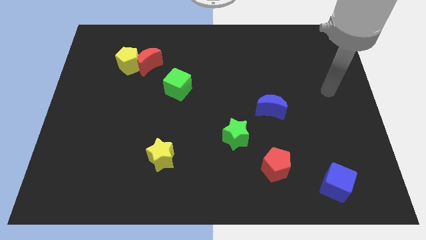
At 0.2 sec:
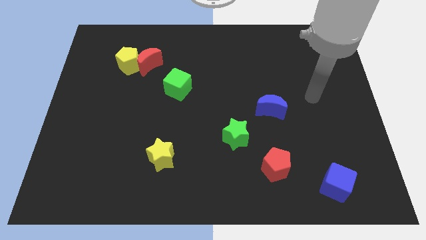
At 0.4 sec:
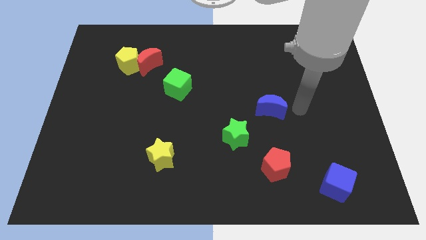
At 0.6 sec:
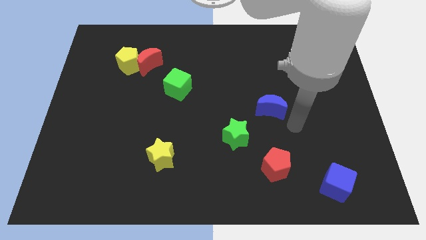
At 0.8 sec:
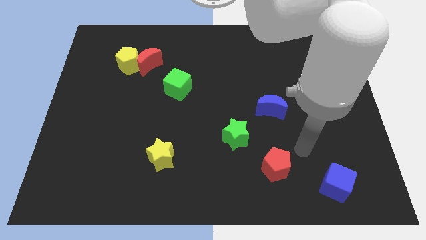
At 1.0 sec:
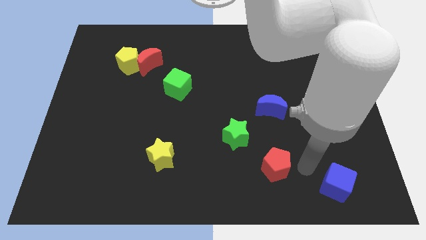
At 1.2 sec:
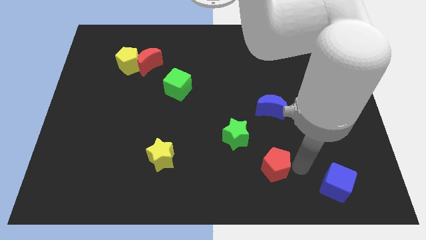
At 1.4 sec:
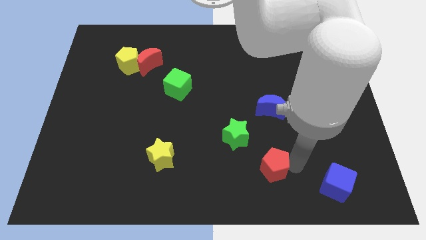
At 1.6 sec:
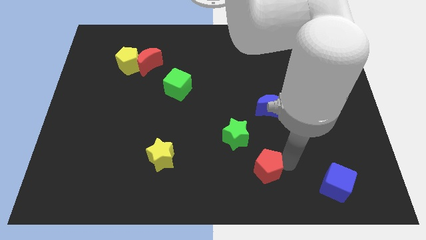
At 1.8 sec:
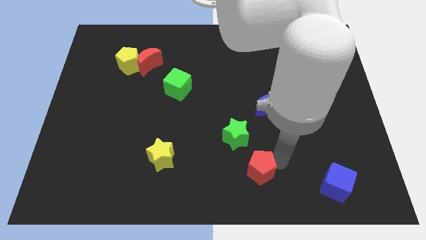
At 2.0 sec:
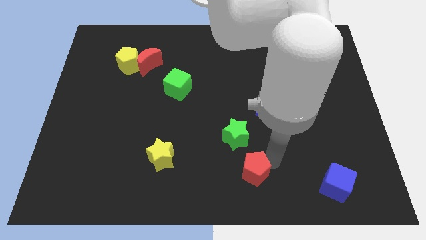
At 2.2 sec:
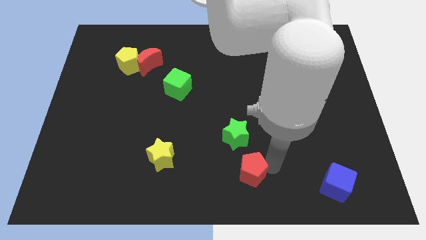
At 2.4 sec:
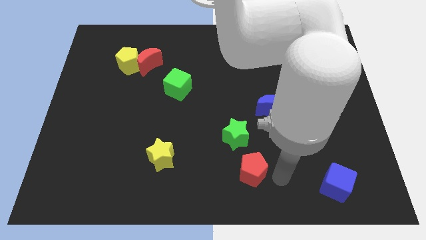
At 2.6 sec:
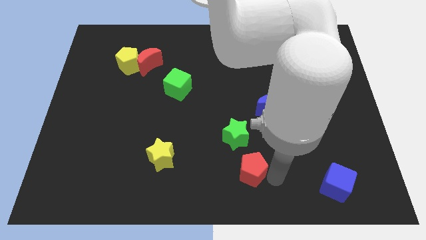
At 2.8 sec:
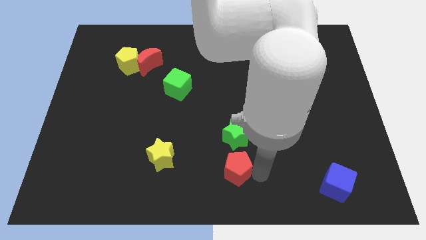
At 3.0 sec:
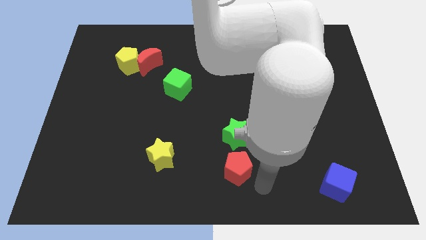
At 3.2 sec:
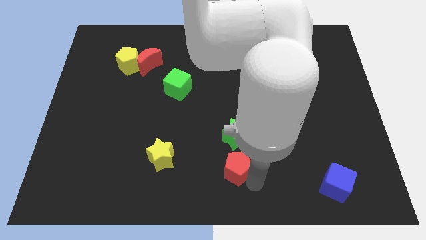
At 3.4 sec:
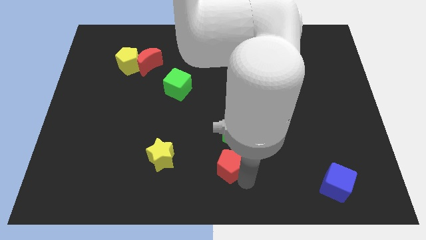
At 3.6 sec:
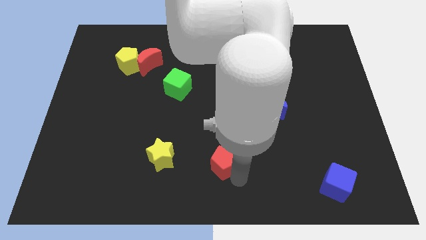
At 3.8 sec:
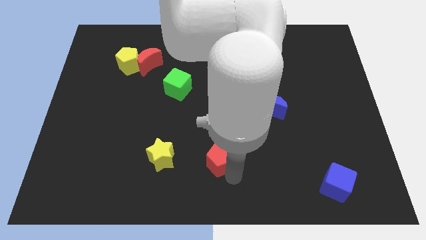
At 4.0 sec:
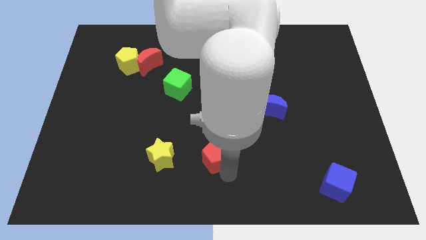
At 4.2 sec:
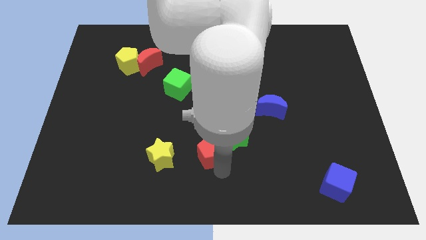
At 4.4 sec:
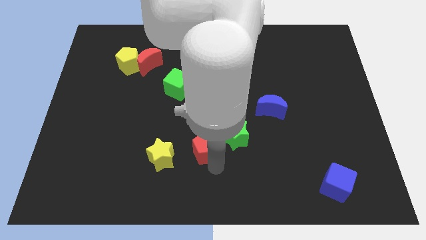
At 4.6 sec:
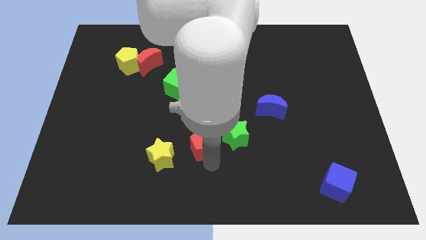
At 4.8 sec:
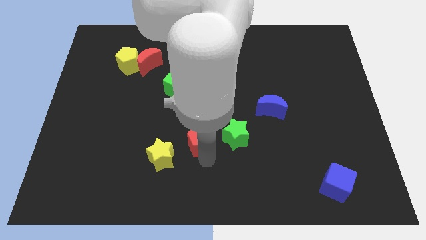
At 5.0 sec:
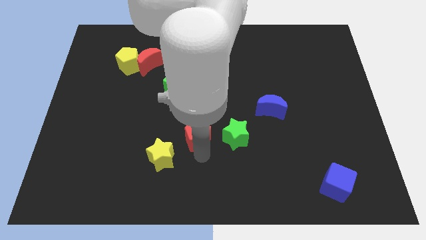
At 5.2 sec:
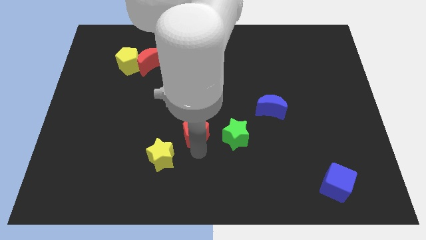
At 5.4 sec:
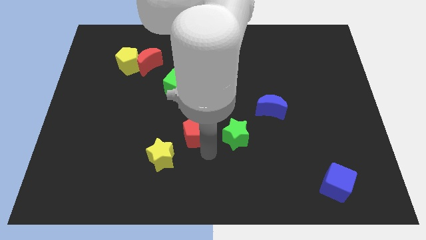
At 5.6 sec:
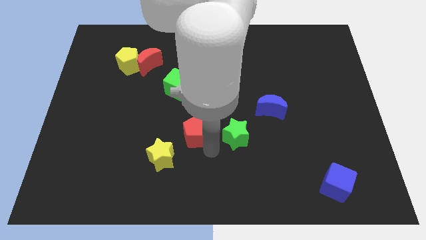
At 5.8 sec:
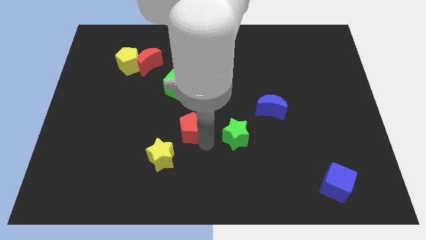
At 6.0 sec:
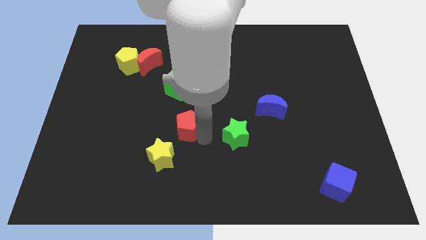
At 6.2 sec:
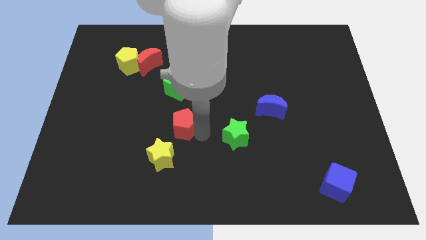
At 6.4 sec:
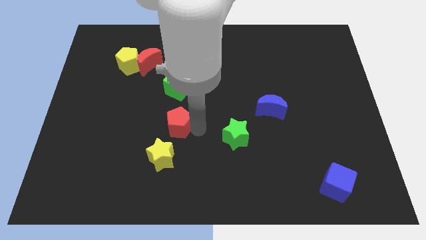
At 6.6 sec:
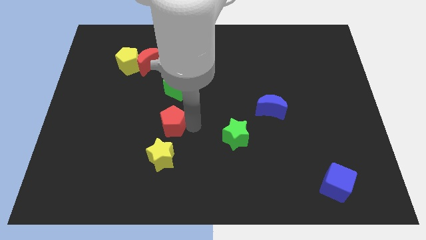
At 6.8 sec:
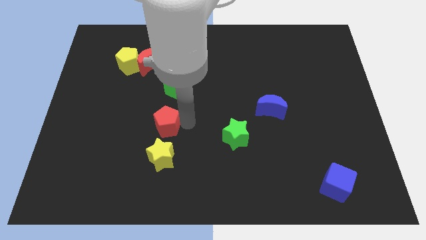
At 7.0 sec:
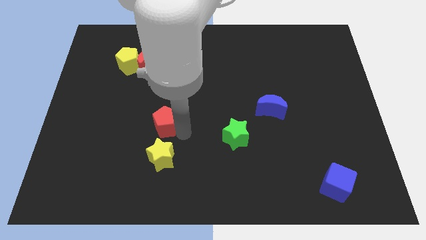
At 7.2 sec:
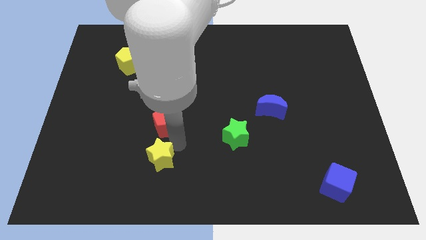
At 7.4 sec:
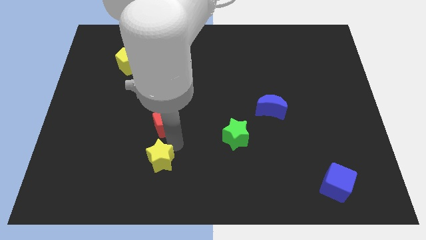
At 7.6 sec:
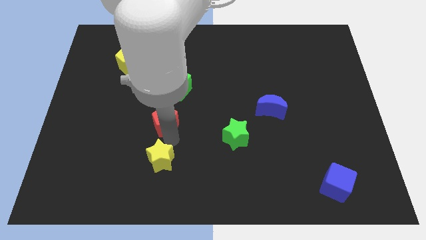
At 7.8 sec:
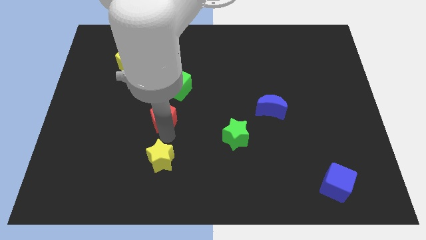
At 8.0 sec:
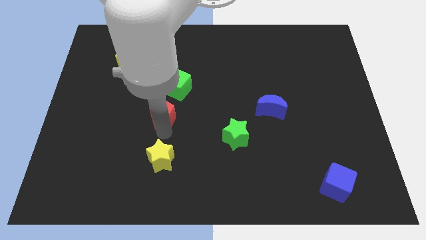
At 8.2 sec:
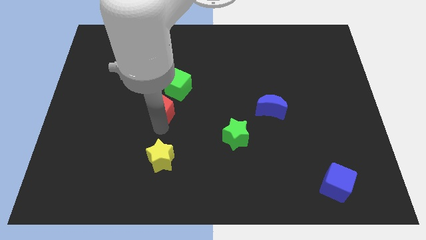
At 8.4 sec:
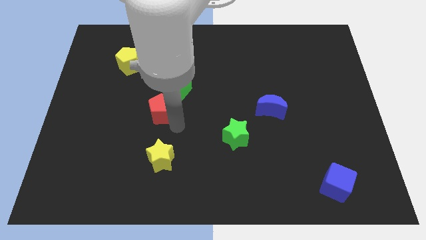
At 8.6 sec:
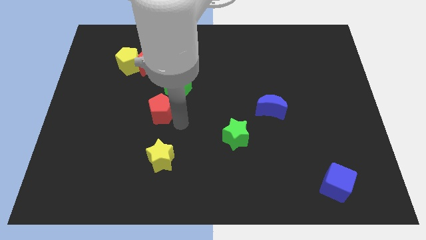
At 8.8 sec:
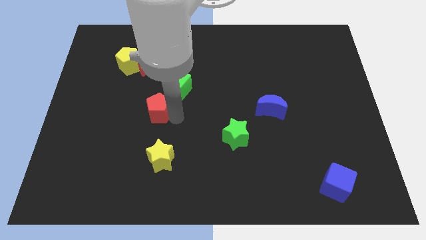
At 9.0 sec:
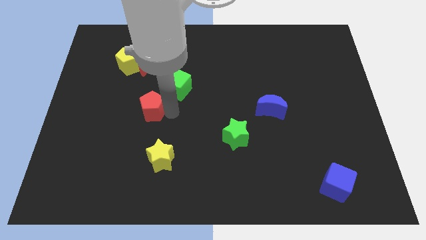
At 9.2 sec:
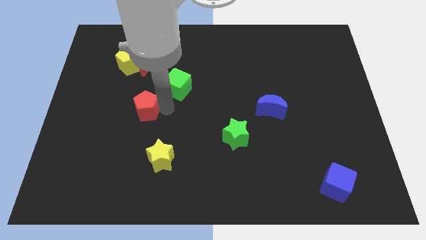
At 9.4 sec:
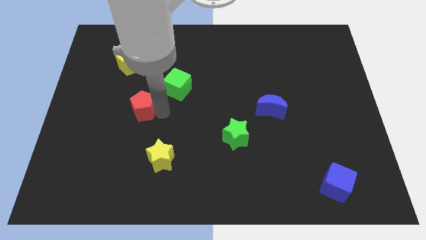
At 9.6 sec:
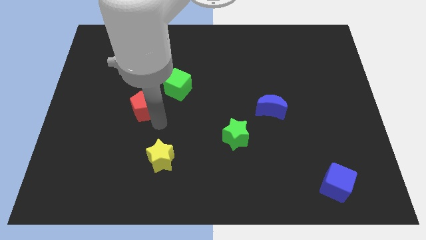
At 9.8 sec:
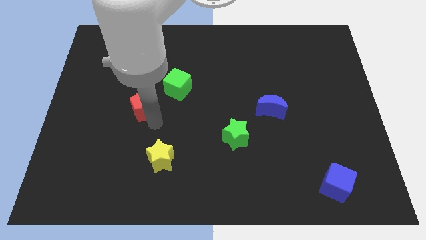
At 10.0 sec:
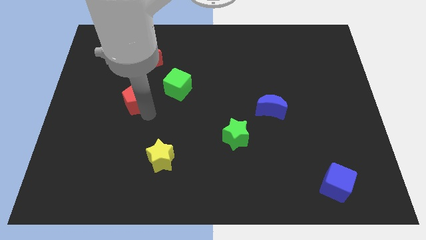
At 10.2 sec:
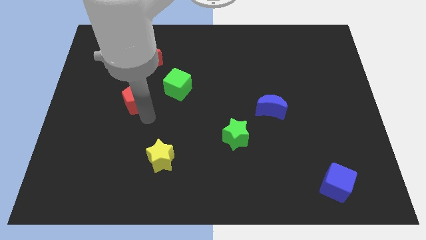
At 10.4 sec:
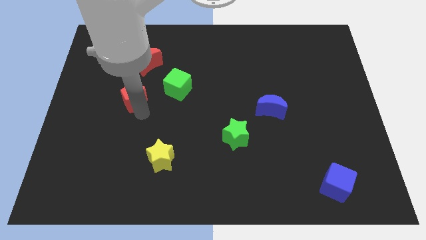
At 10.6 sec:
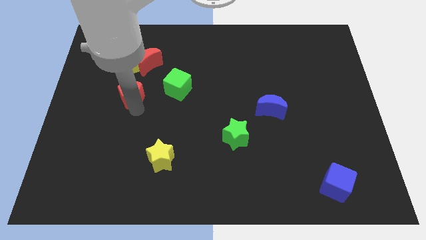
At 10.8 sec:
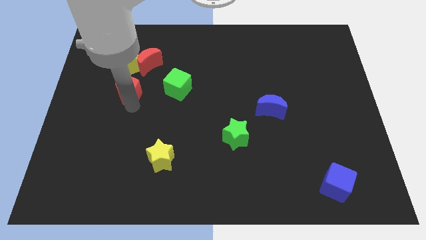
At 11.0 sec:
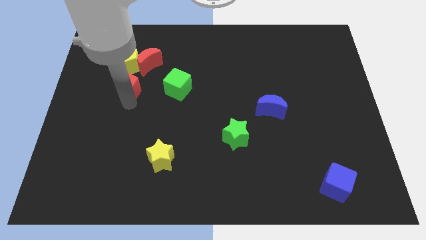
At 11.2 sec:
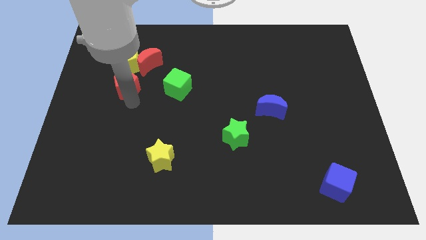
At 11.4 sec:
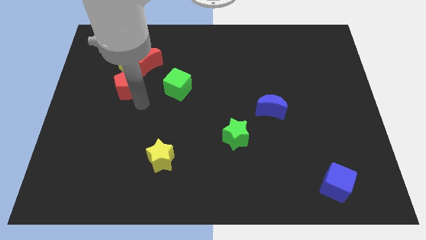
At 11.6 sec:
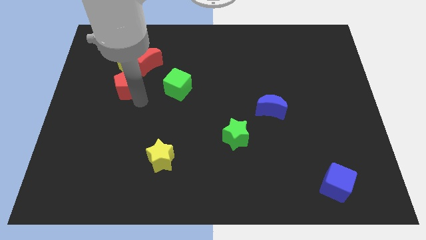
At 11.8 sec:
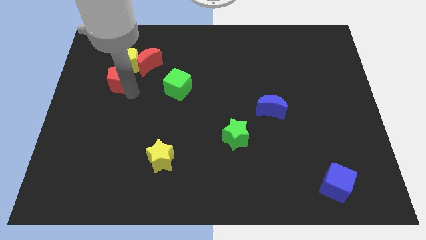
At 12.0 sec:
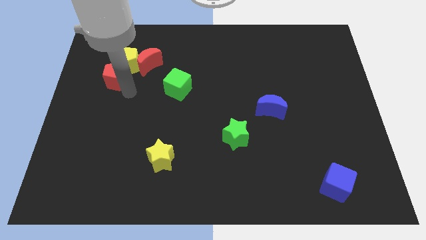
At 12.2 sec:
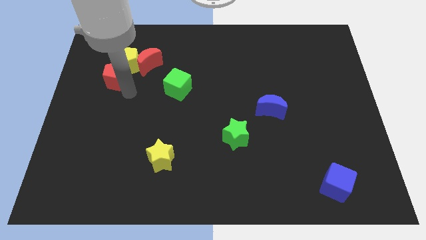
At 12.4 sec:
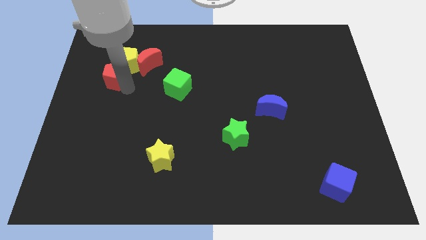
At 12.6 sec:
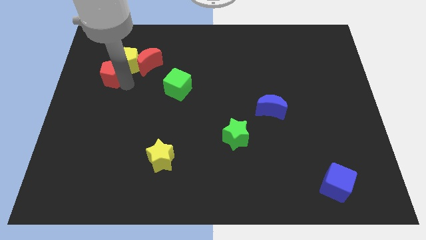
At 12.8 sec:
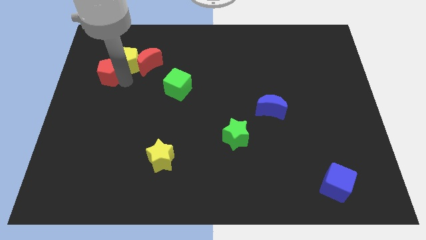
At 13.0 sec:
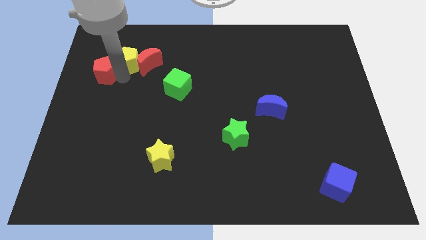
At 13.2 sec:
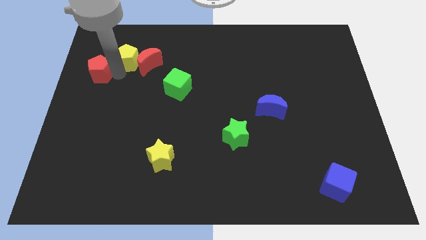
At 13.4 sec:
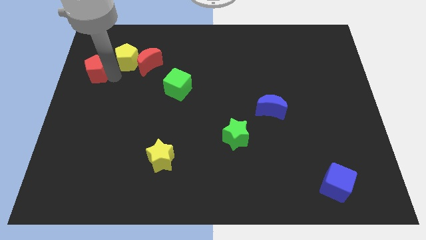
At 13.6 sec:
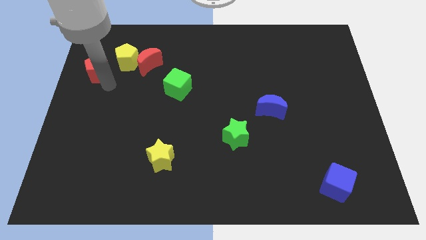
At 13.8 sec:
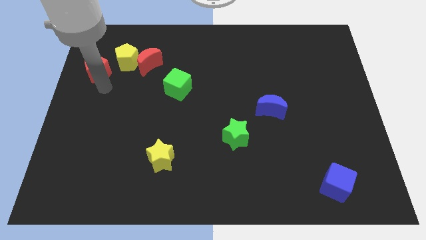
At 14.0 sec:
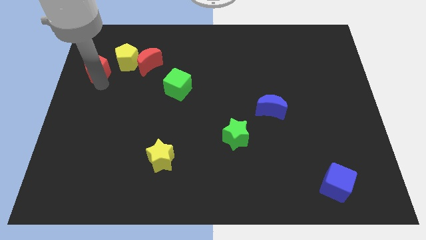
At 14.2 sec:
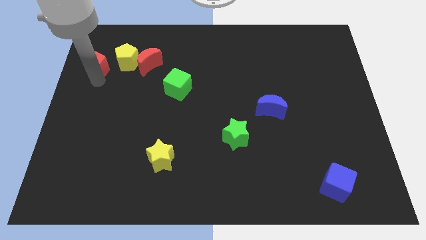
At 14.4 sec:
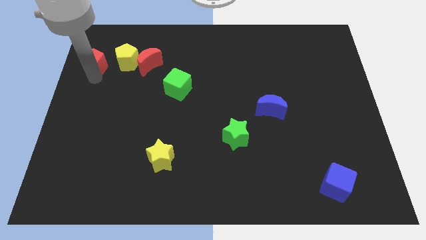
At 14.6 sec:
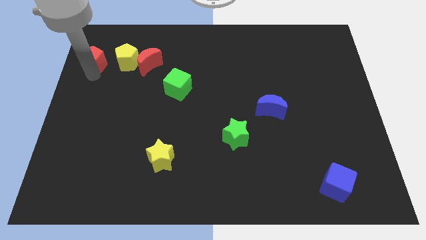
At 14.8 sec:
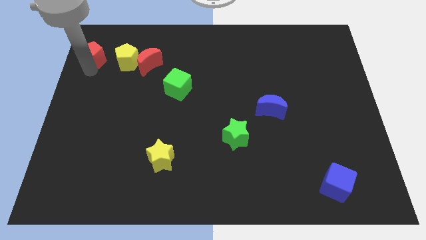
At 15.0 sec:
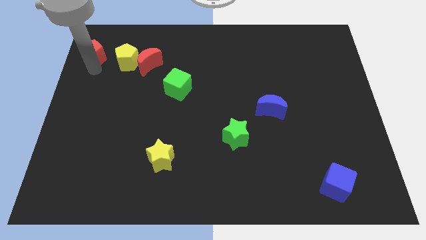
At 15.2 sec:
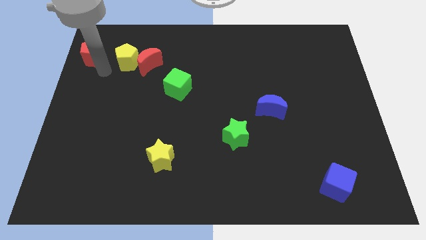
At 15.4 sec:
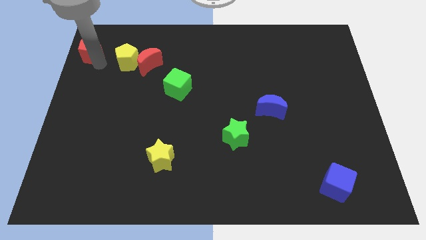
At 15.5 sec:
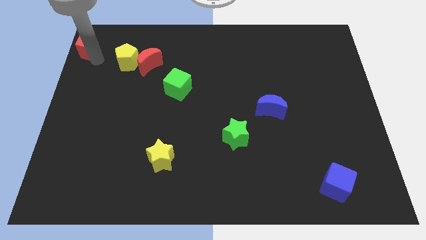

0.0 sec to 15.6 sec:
push the red pentagon to the top left
